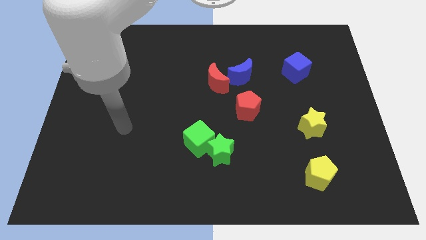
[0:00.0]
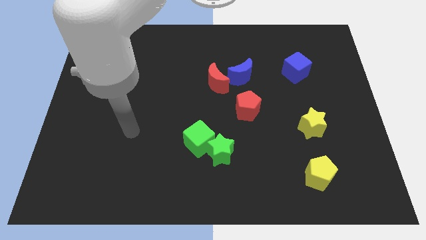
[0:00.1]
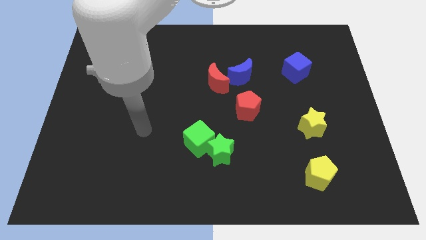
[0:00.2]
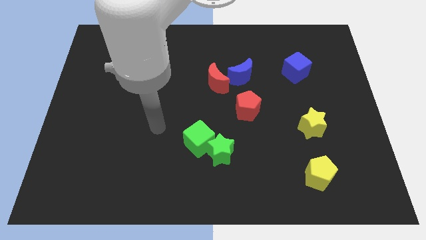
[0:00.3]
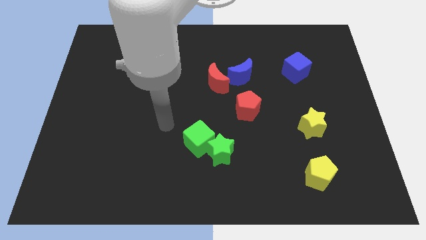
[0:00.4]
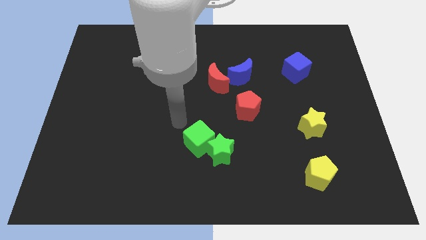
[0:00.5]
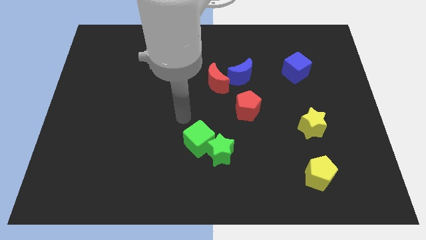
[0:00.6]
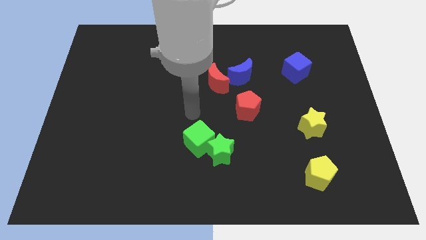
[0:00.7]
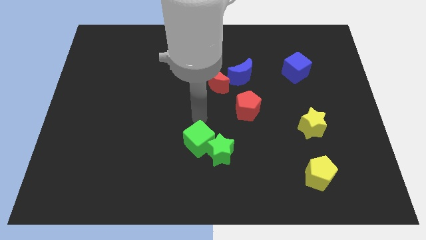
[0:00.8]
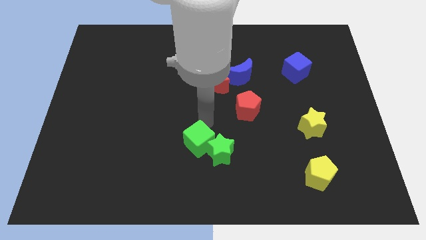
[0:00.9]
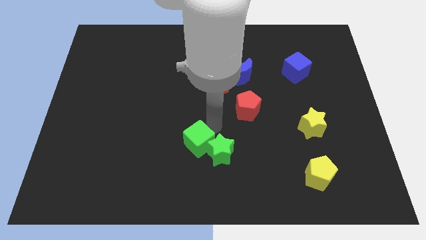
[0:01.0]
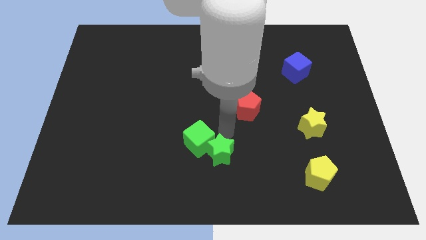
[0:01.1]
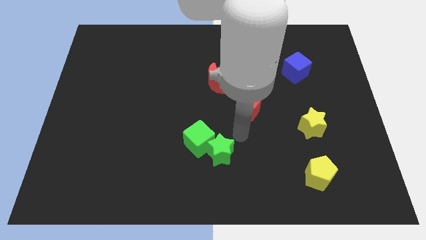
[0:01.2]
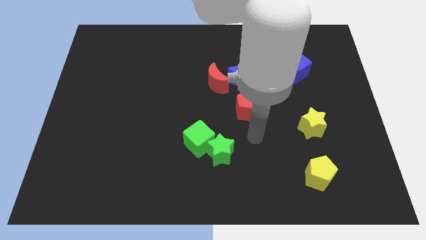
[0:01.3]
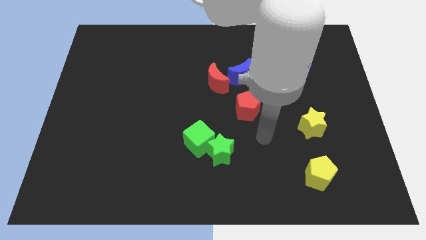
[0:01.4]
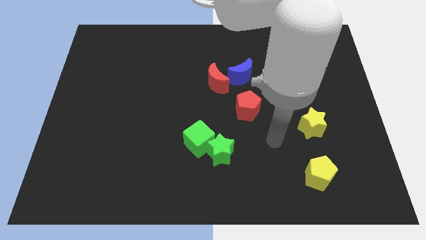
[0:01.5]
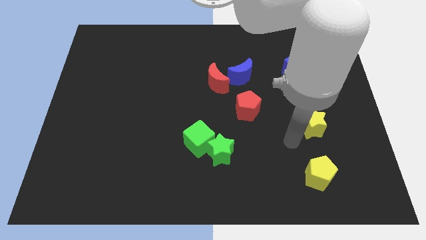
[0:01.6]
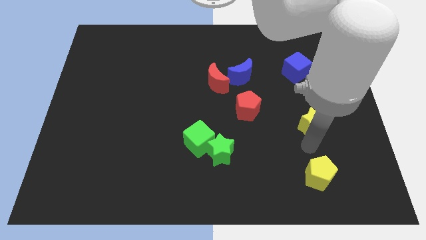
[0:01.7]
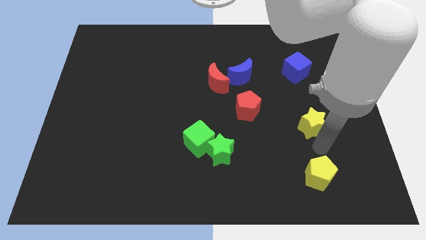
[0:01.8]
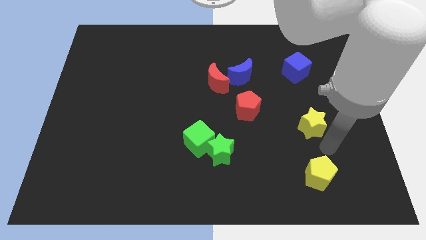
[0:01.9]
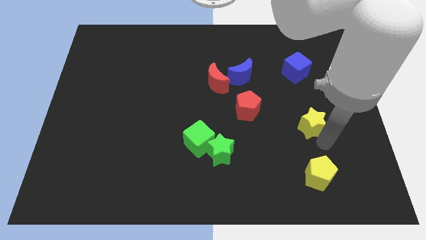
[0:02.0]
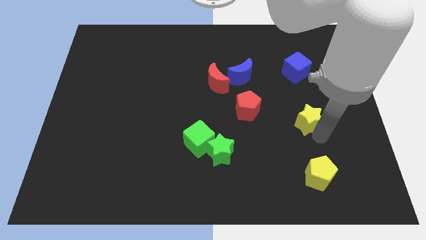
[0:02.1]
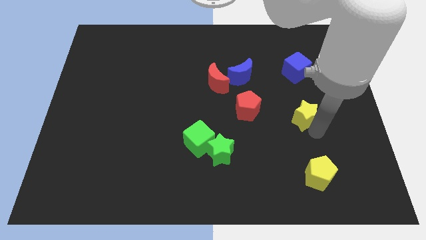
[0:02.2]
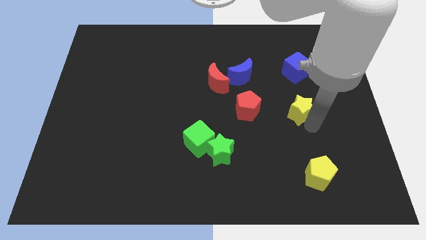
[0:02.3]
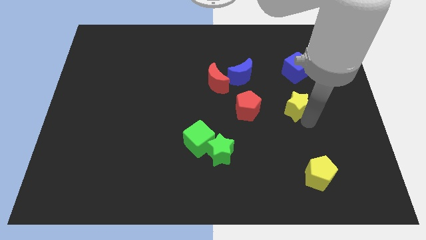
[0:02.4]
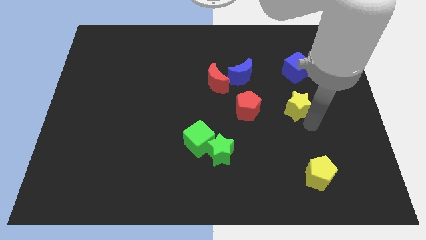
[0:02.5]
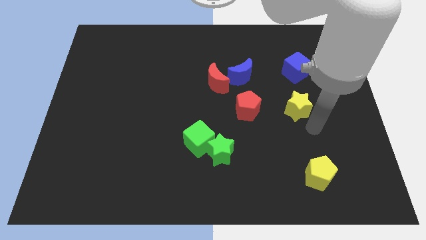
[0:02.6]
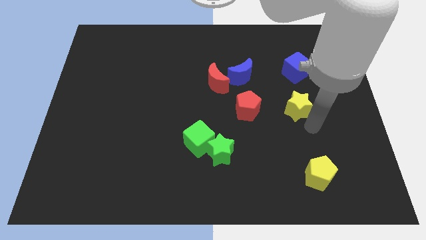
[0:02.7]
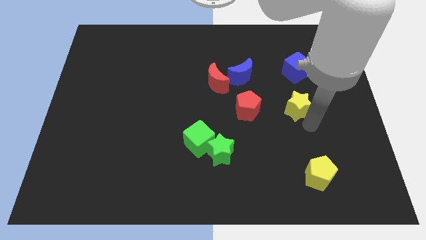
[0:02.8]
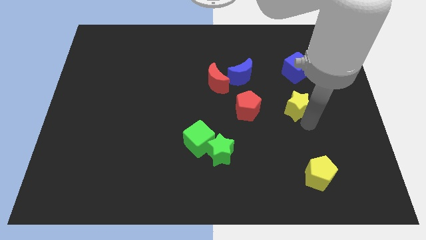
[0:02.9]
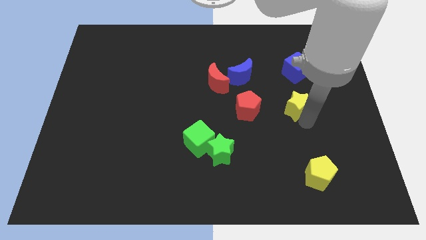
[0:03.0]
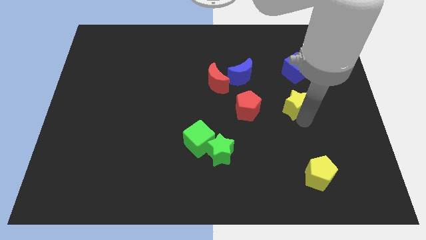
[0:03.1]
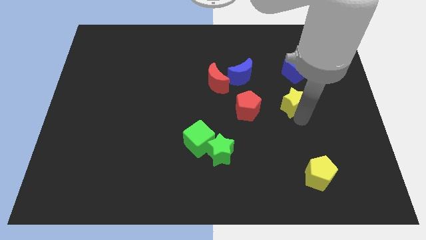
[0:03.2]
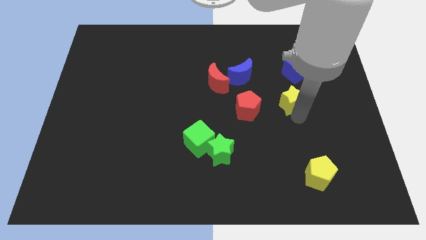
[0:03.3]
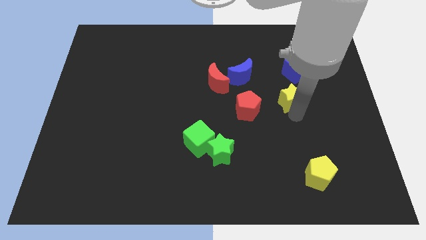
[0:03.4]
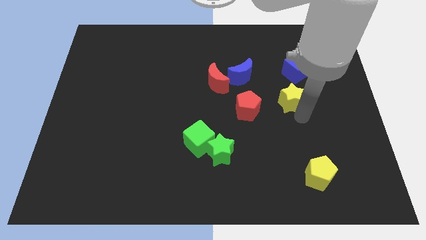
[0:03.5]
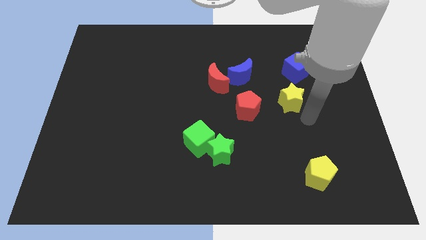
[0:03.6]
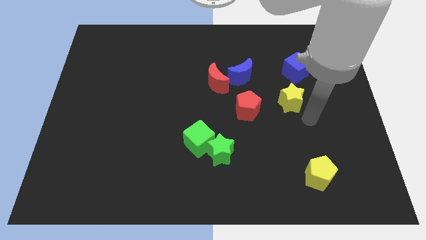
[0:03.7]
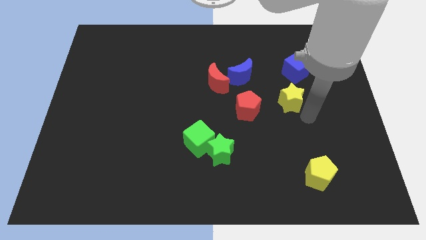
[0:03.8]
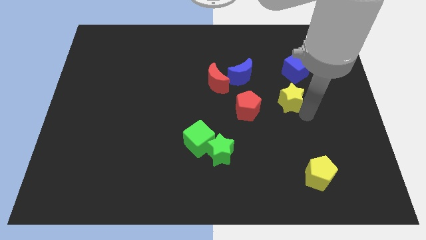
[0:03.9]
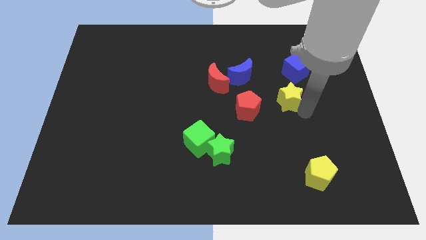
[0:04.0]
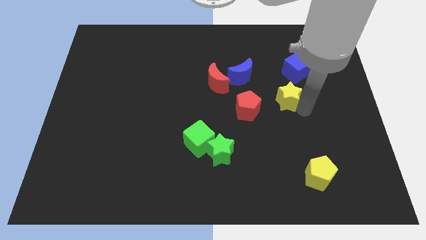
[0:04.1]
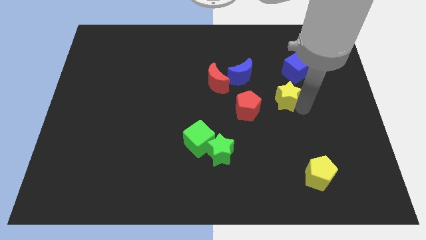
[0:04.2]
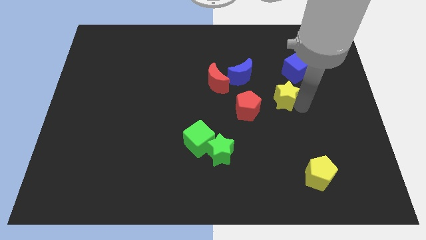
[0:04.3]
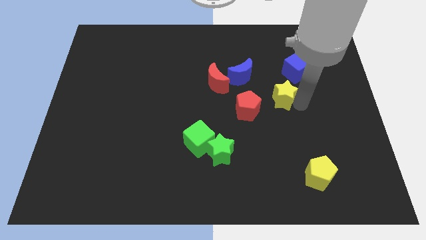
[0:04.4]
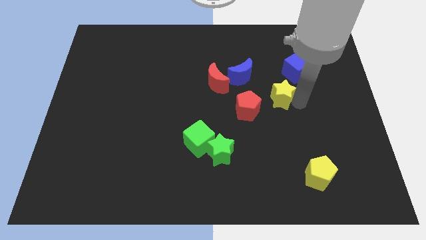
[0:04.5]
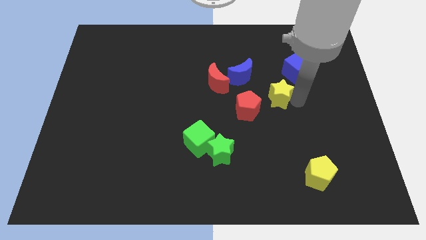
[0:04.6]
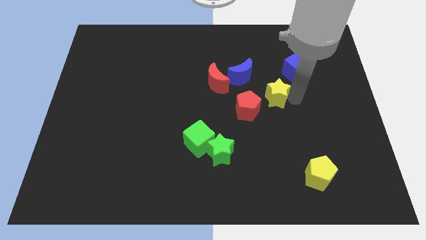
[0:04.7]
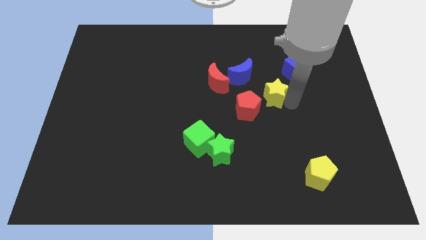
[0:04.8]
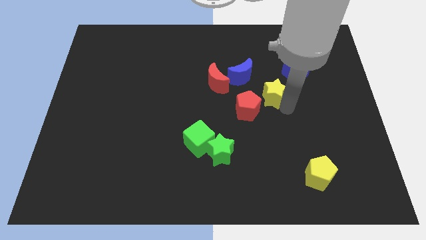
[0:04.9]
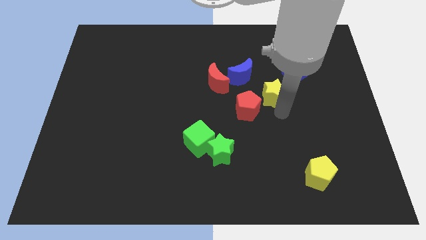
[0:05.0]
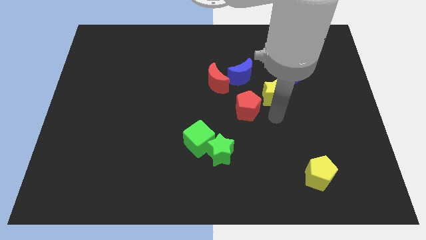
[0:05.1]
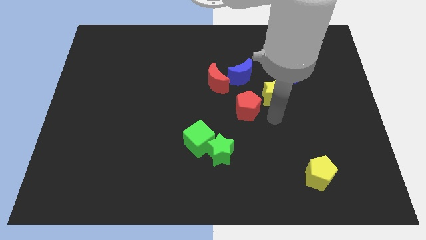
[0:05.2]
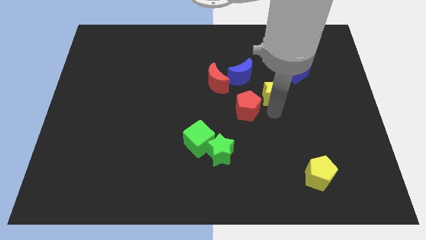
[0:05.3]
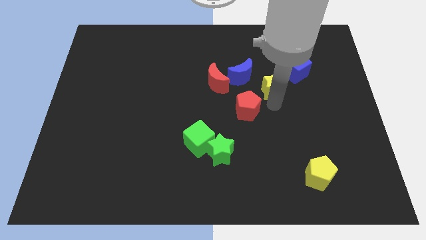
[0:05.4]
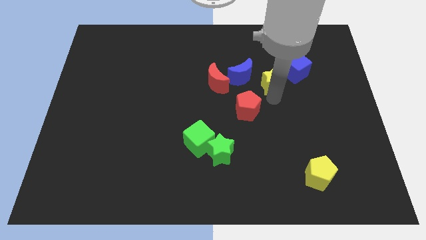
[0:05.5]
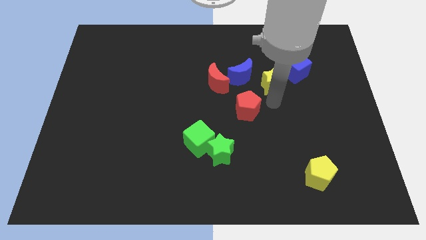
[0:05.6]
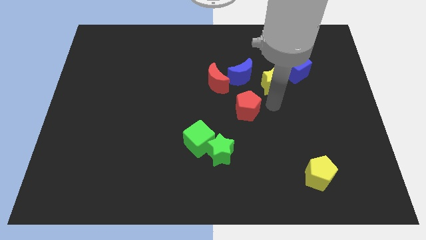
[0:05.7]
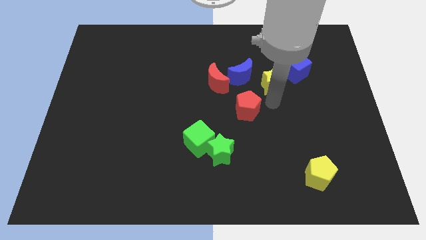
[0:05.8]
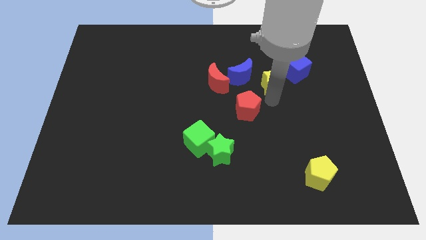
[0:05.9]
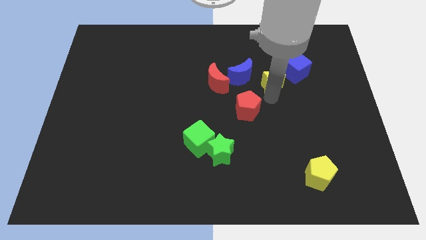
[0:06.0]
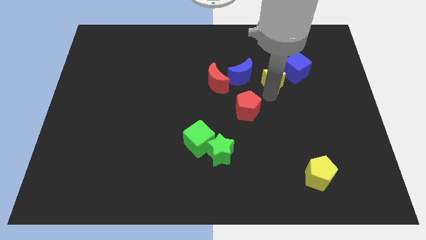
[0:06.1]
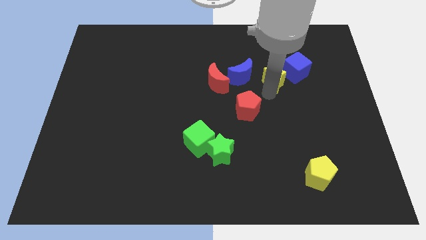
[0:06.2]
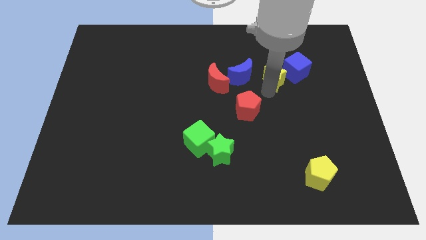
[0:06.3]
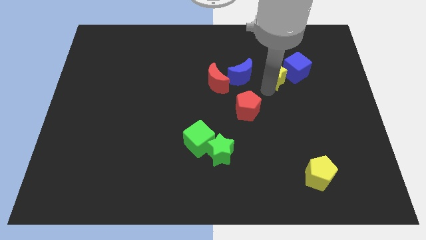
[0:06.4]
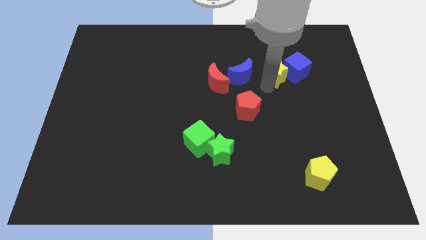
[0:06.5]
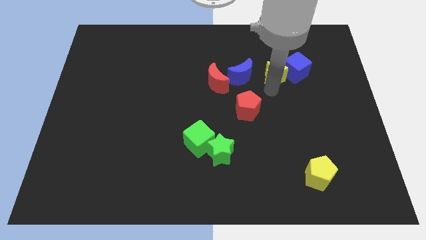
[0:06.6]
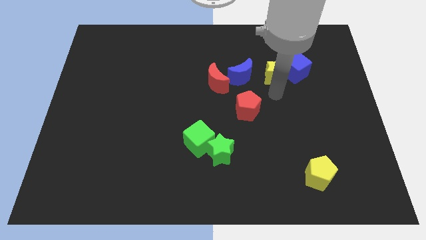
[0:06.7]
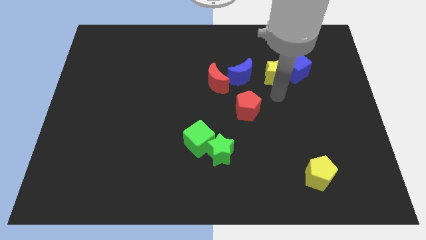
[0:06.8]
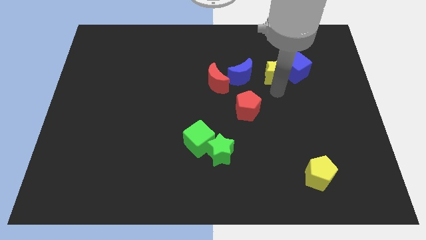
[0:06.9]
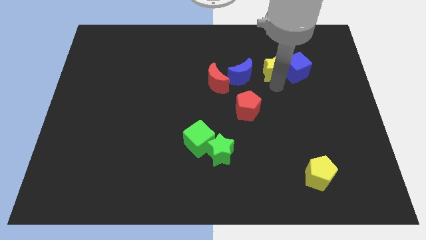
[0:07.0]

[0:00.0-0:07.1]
push the yellow star diagonally up and to the left of the blue cube

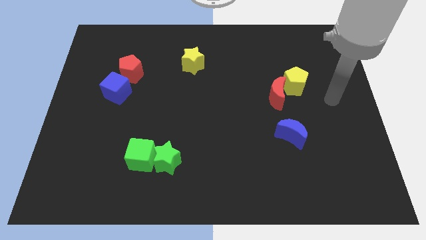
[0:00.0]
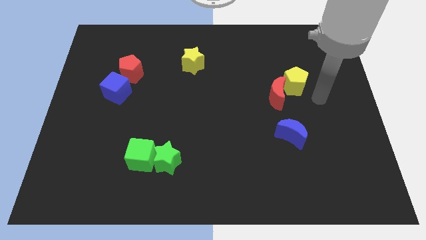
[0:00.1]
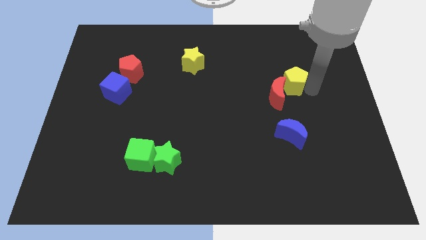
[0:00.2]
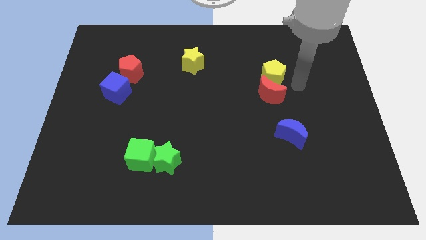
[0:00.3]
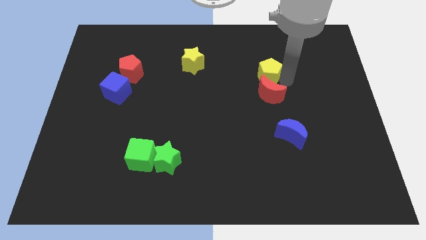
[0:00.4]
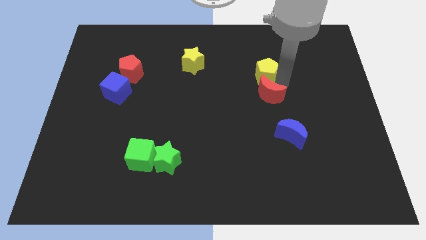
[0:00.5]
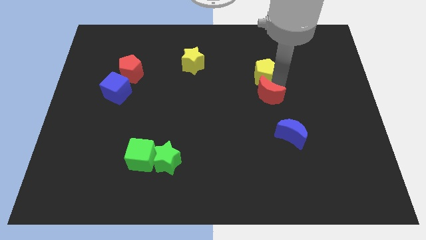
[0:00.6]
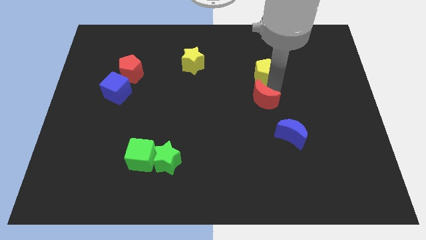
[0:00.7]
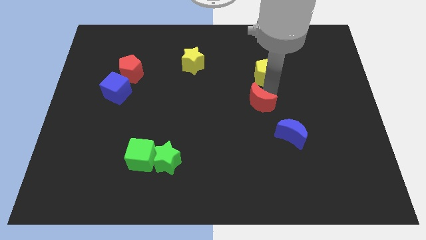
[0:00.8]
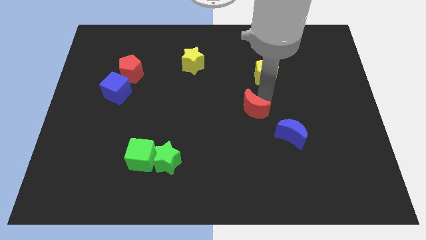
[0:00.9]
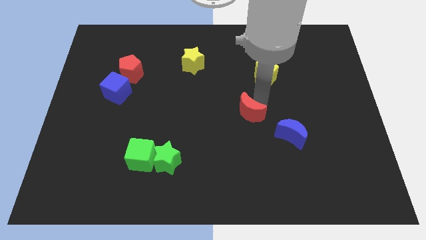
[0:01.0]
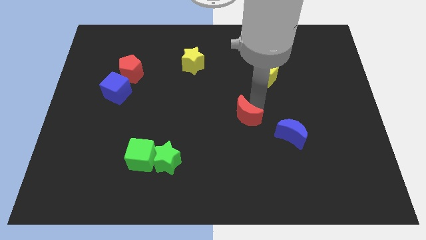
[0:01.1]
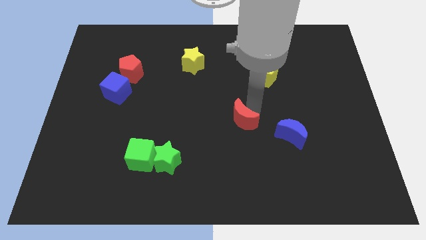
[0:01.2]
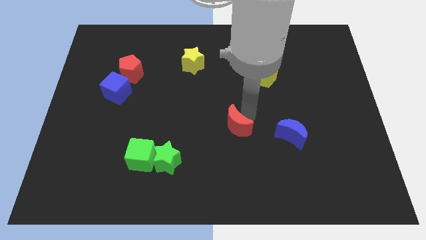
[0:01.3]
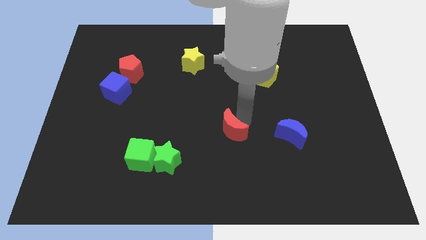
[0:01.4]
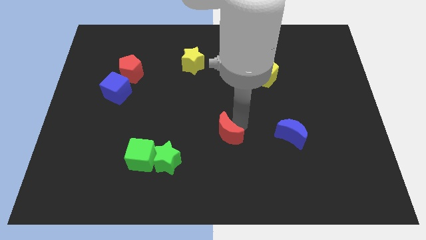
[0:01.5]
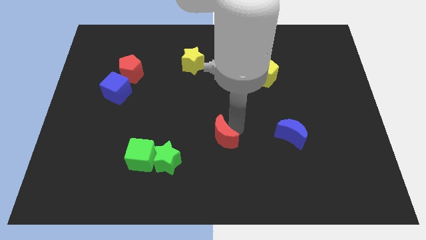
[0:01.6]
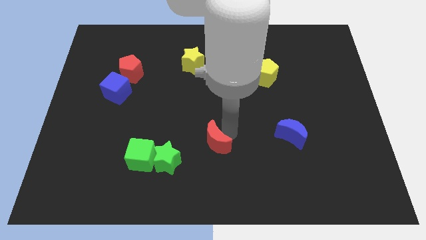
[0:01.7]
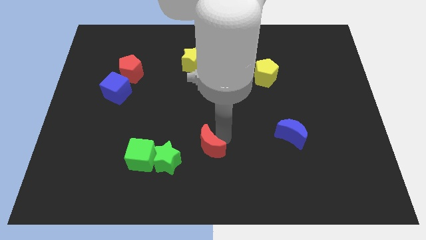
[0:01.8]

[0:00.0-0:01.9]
put the red moon just right of the green cube
